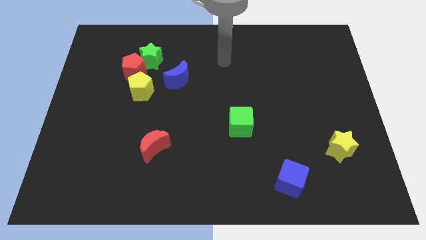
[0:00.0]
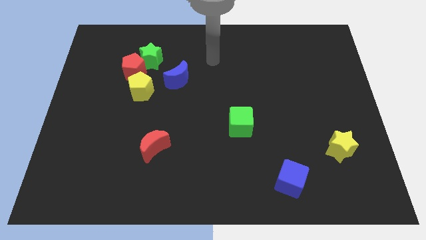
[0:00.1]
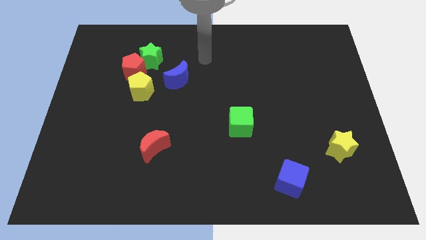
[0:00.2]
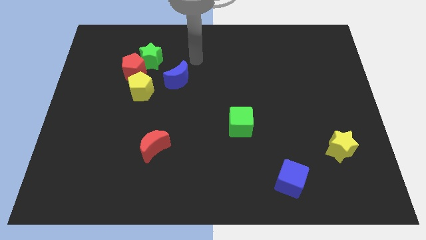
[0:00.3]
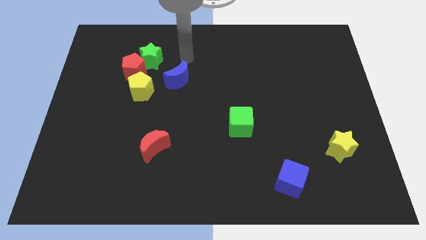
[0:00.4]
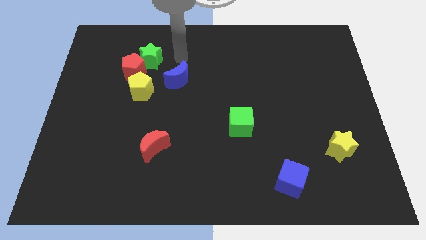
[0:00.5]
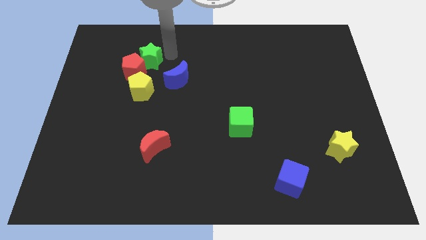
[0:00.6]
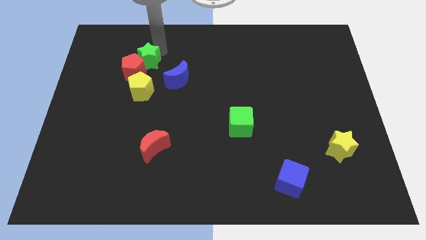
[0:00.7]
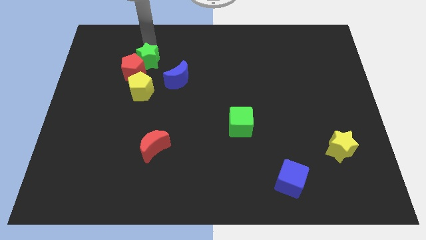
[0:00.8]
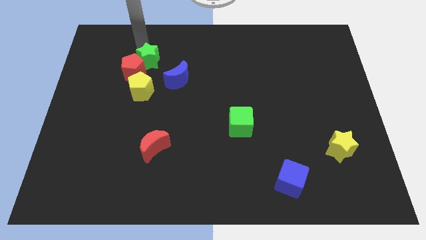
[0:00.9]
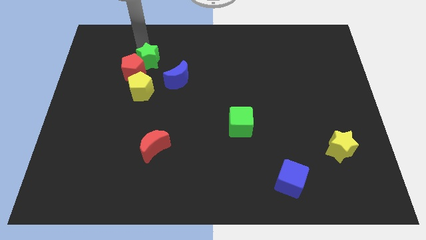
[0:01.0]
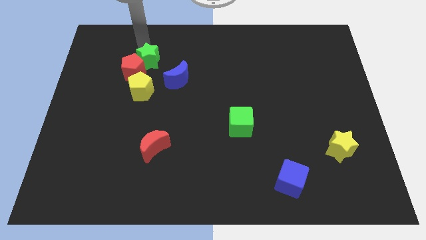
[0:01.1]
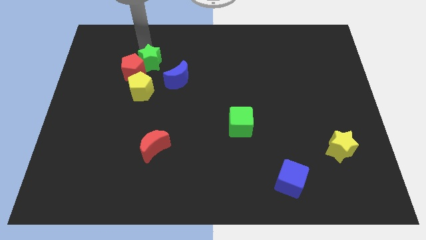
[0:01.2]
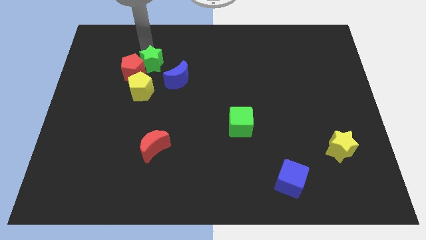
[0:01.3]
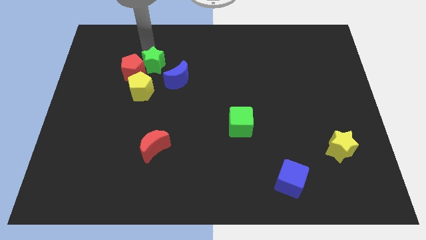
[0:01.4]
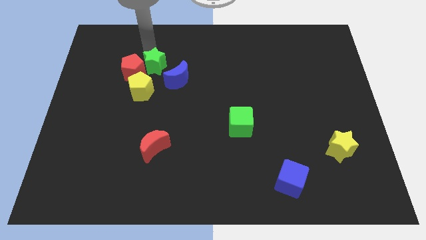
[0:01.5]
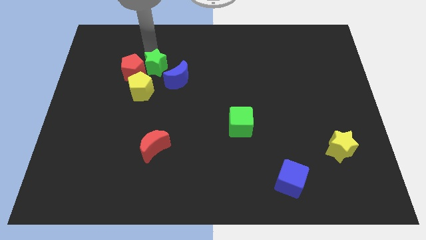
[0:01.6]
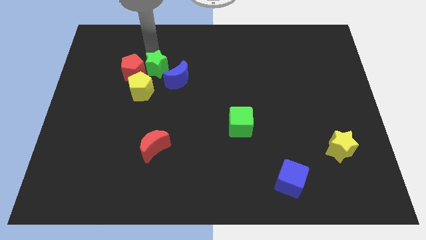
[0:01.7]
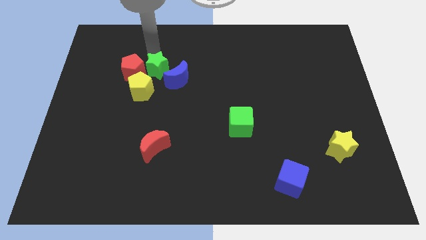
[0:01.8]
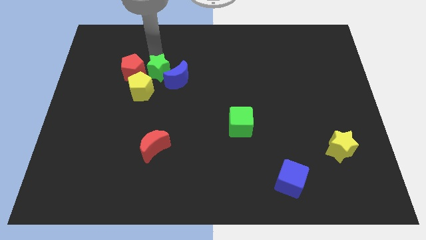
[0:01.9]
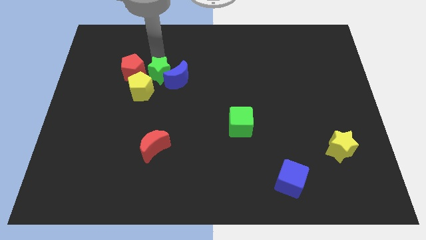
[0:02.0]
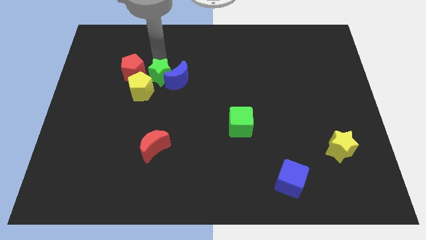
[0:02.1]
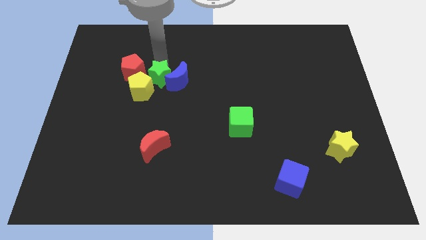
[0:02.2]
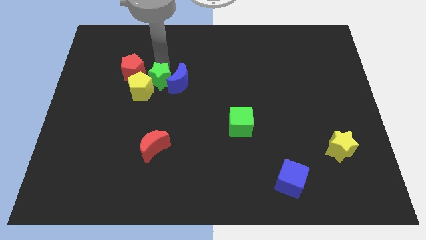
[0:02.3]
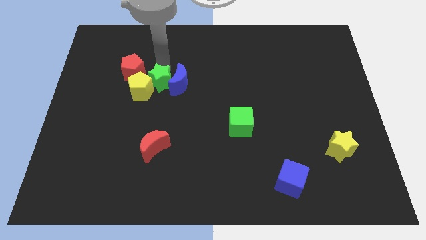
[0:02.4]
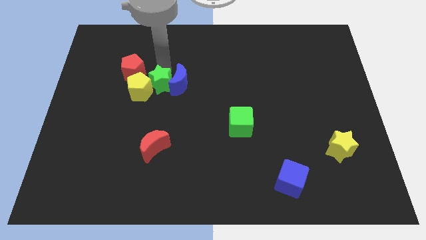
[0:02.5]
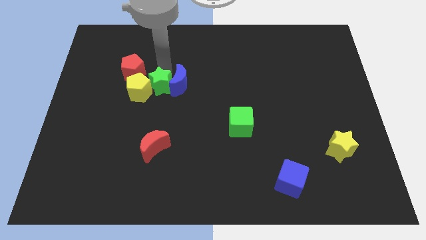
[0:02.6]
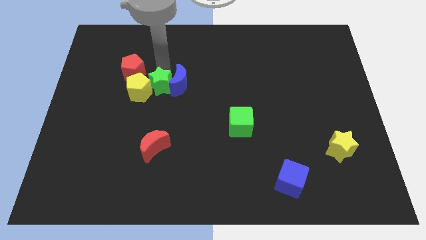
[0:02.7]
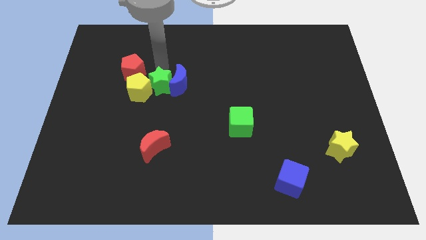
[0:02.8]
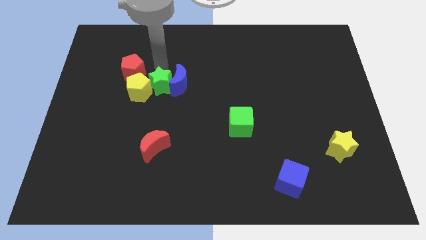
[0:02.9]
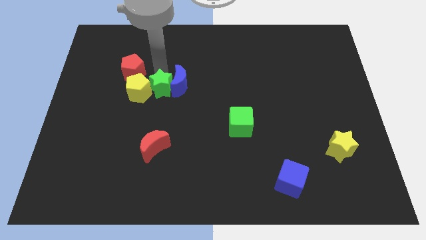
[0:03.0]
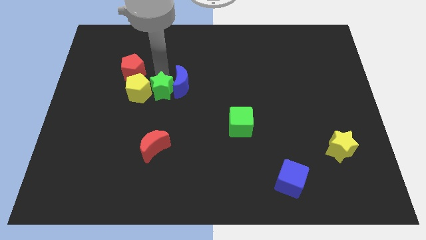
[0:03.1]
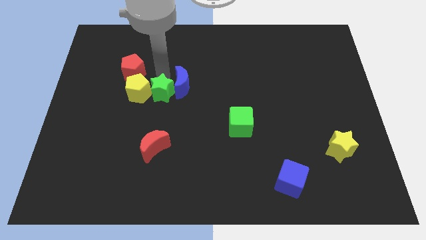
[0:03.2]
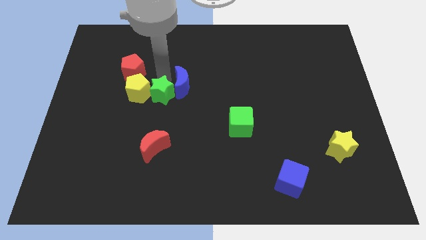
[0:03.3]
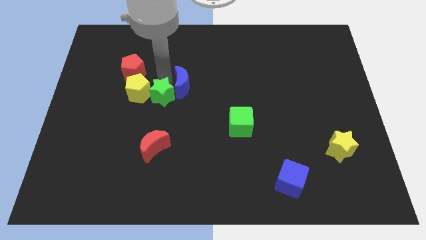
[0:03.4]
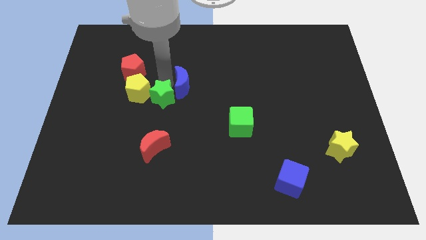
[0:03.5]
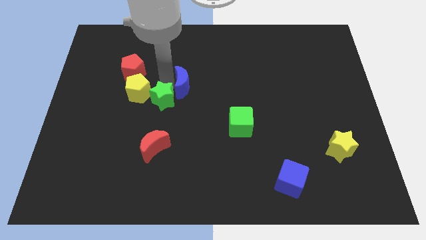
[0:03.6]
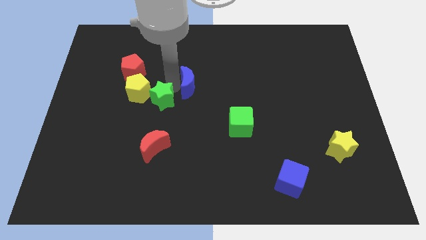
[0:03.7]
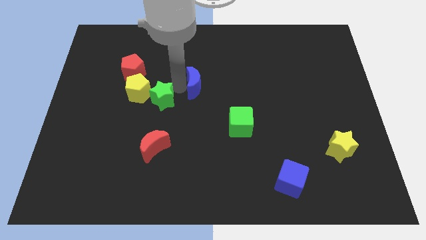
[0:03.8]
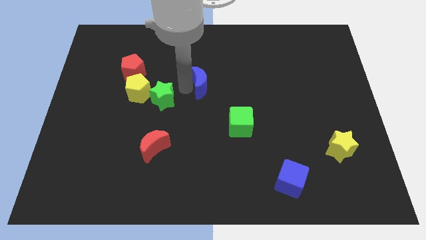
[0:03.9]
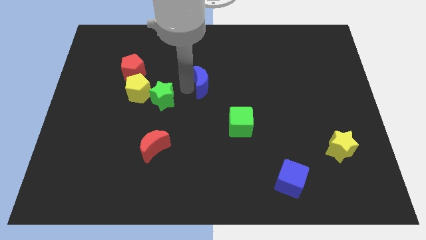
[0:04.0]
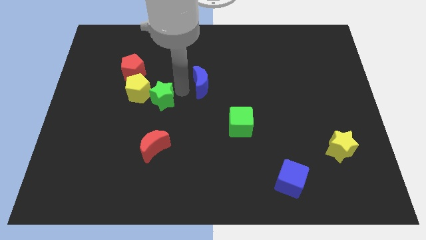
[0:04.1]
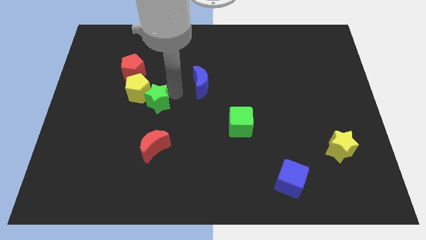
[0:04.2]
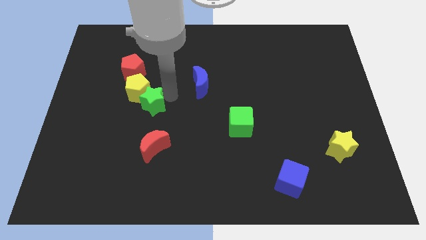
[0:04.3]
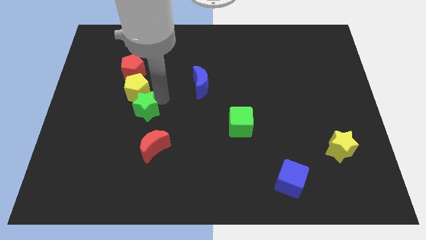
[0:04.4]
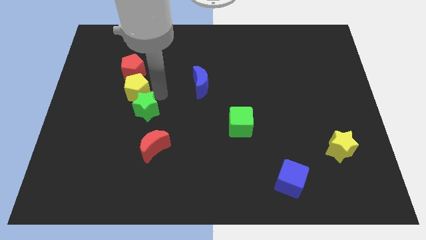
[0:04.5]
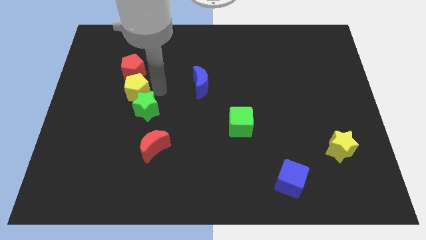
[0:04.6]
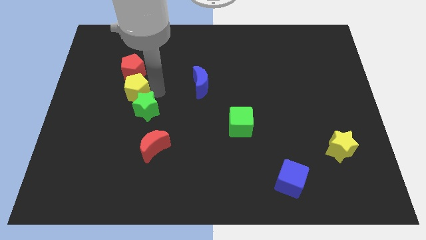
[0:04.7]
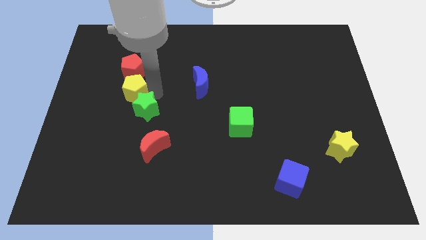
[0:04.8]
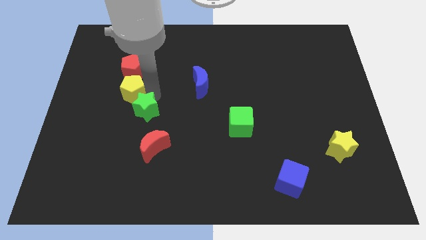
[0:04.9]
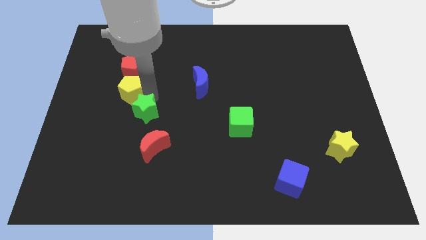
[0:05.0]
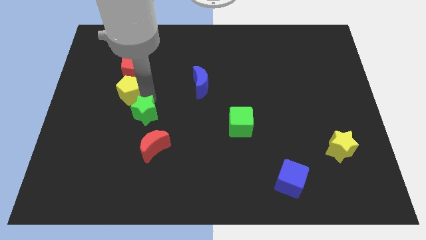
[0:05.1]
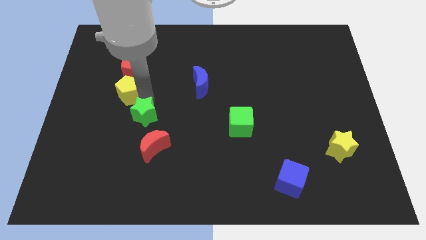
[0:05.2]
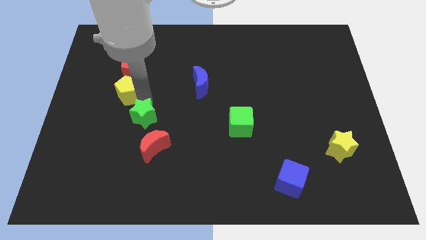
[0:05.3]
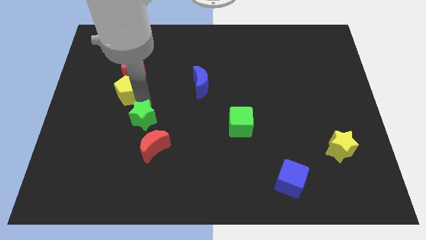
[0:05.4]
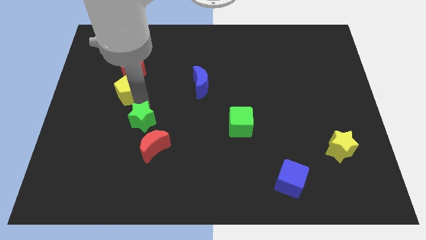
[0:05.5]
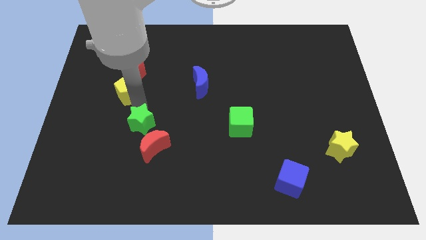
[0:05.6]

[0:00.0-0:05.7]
push the green star down

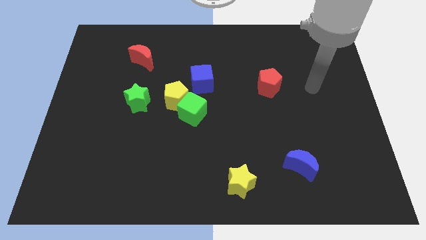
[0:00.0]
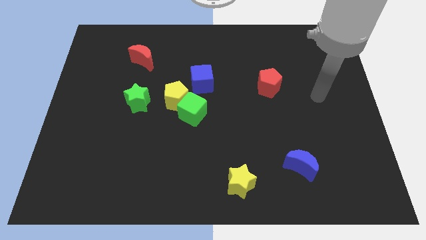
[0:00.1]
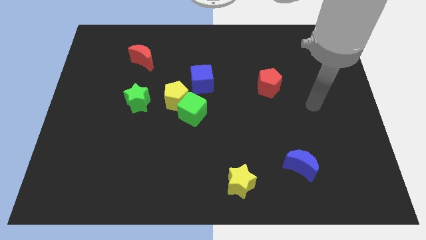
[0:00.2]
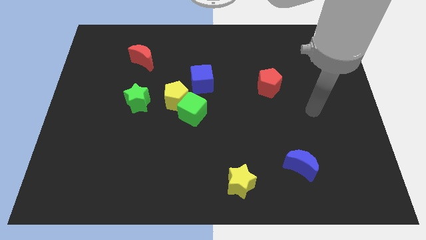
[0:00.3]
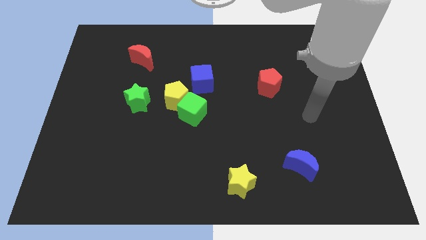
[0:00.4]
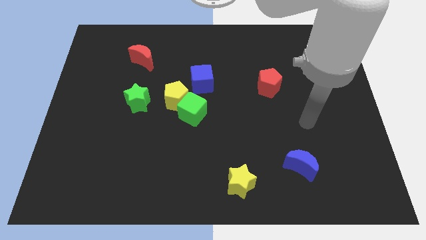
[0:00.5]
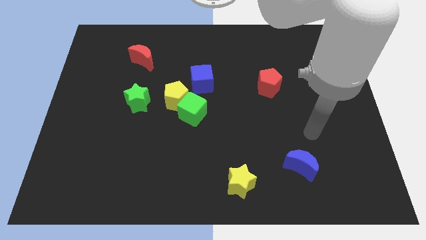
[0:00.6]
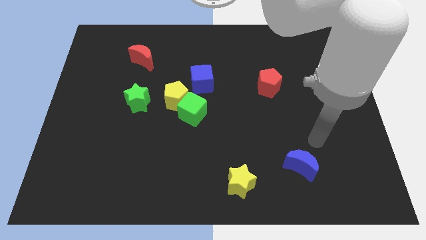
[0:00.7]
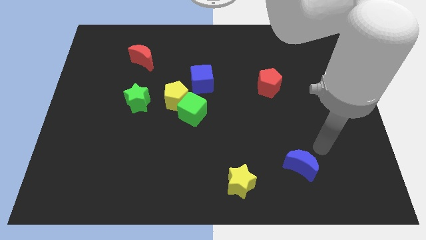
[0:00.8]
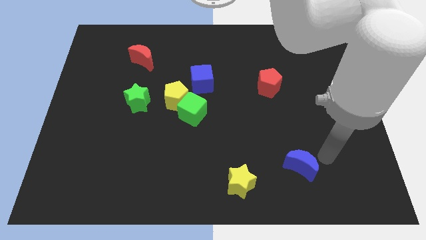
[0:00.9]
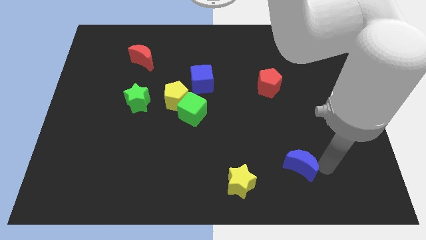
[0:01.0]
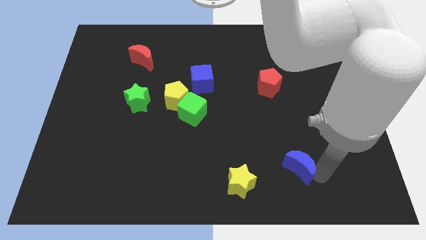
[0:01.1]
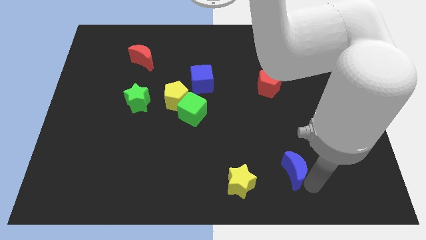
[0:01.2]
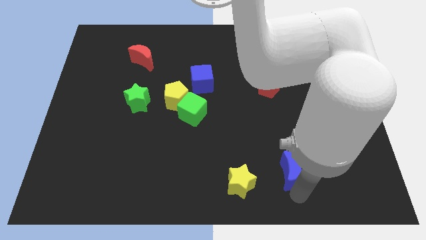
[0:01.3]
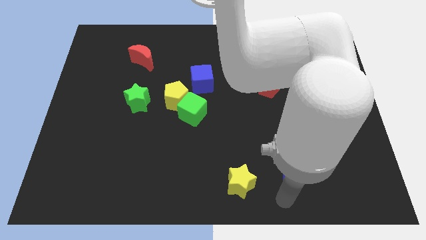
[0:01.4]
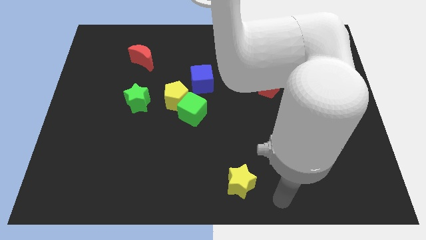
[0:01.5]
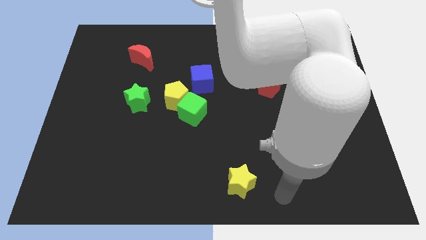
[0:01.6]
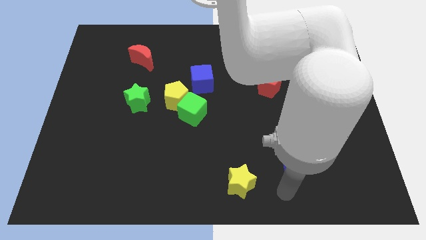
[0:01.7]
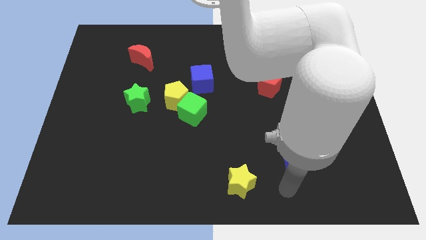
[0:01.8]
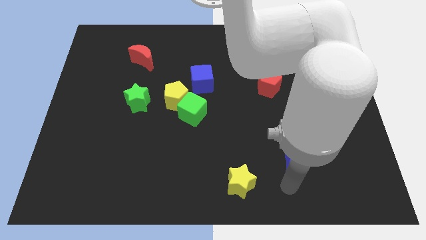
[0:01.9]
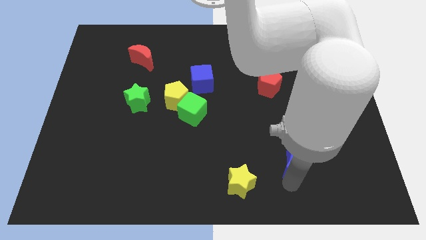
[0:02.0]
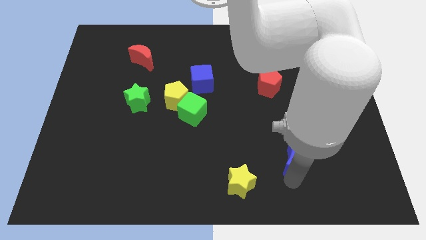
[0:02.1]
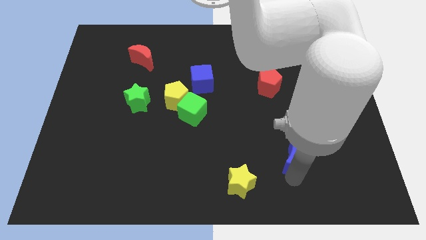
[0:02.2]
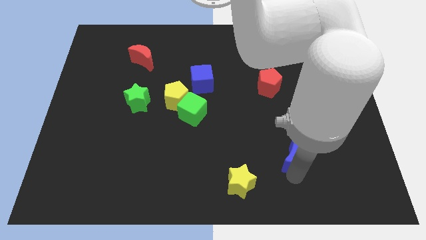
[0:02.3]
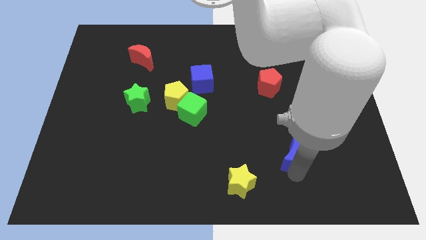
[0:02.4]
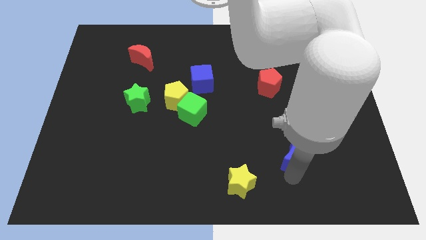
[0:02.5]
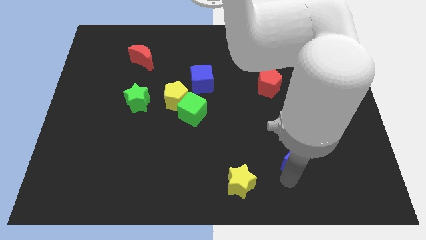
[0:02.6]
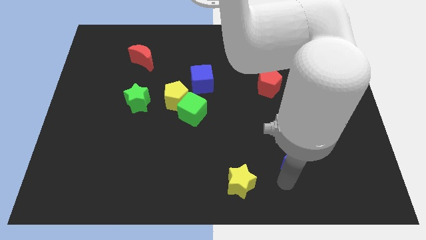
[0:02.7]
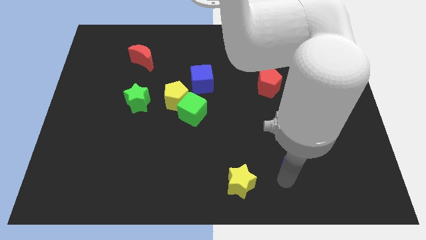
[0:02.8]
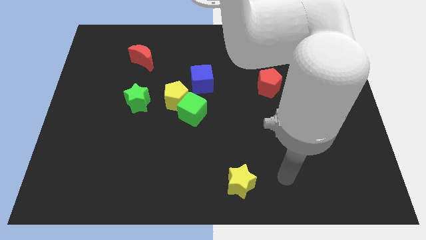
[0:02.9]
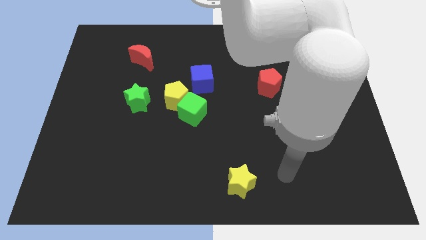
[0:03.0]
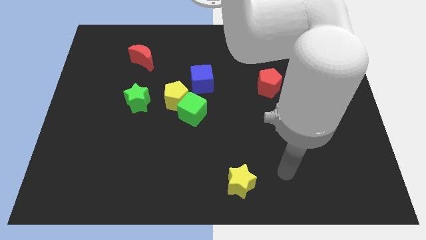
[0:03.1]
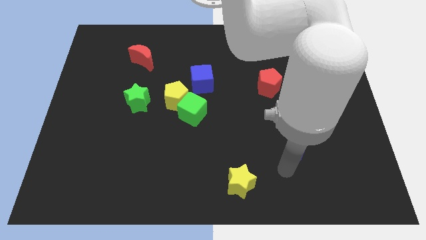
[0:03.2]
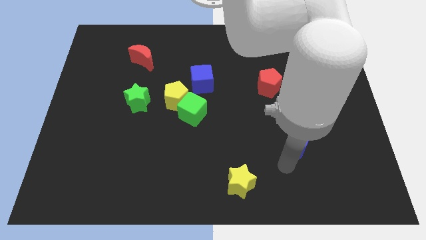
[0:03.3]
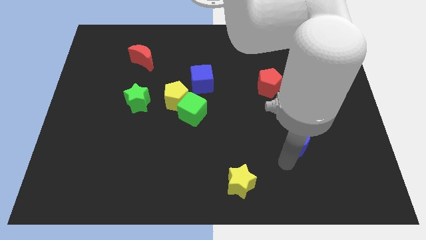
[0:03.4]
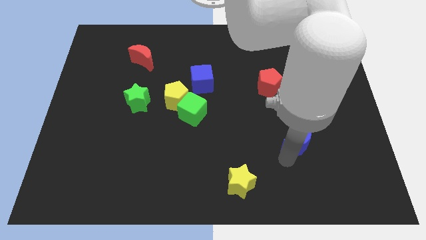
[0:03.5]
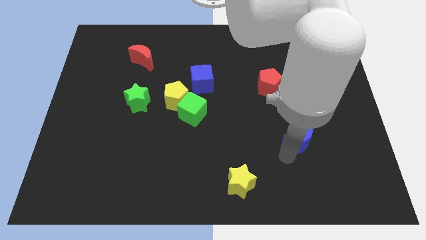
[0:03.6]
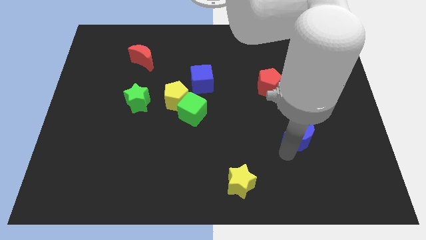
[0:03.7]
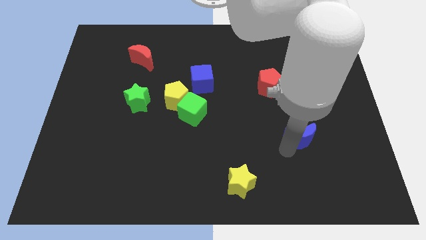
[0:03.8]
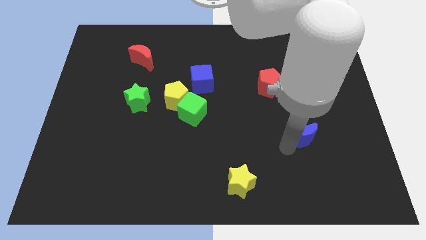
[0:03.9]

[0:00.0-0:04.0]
push the blue moon a bit up
